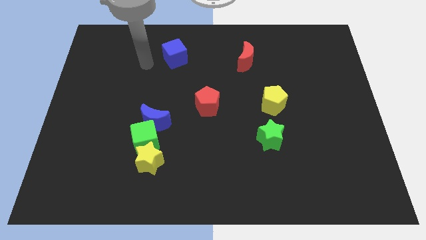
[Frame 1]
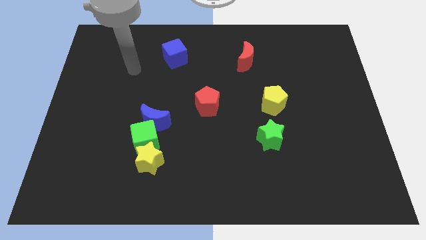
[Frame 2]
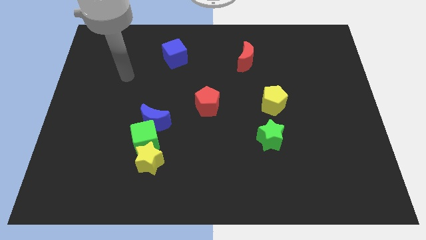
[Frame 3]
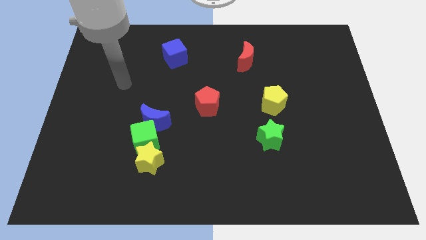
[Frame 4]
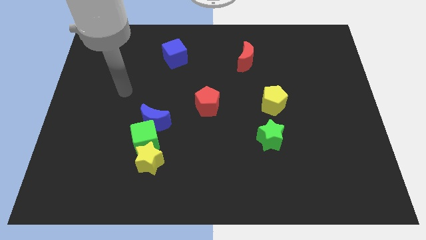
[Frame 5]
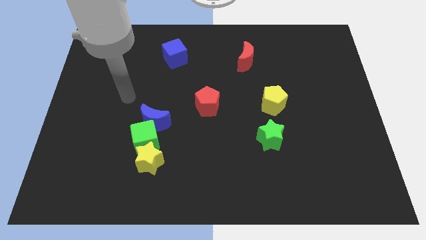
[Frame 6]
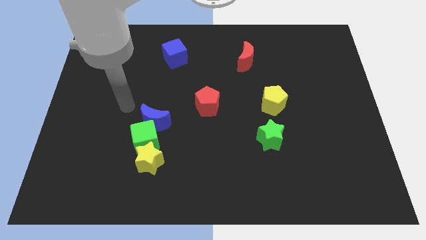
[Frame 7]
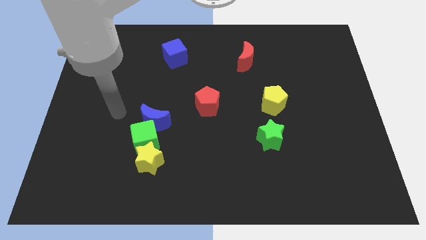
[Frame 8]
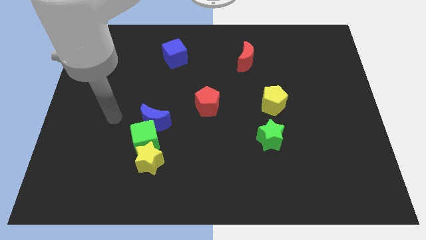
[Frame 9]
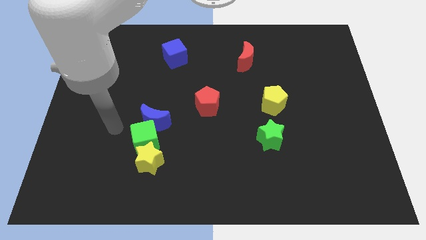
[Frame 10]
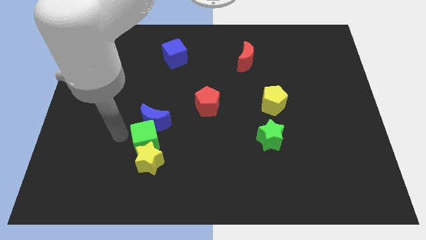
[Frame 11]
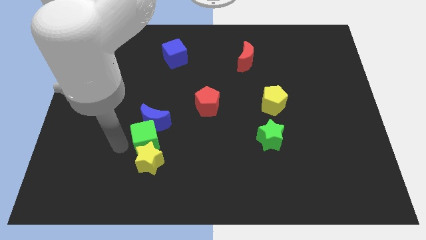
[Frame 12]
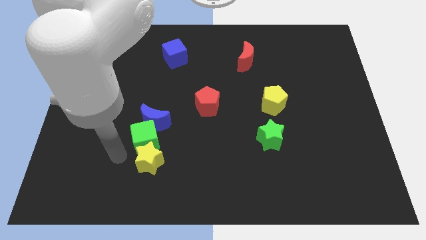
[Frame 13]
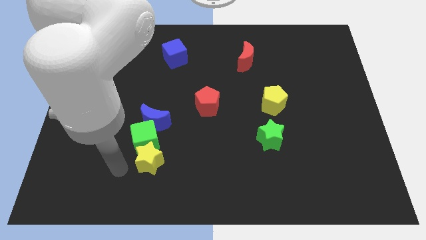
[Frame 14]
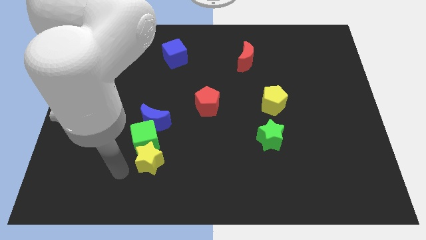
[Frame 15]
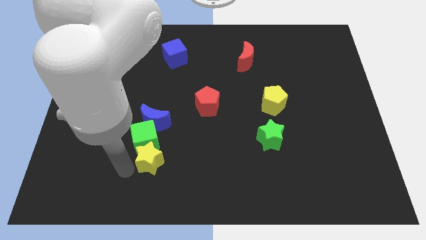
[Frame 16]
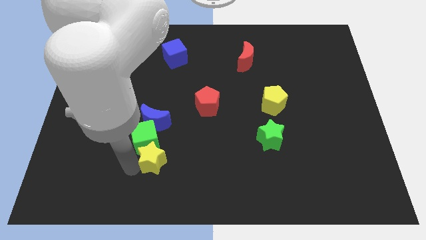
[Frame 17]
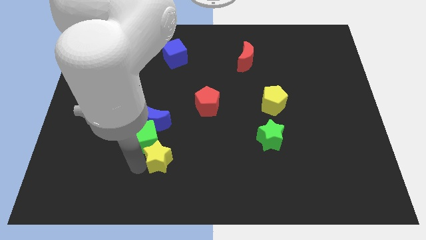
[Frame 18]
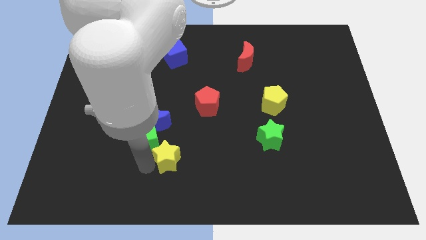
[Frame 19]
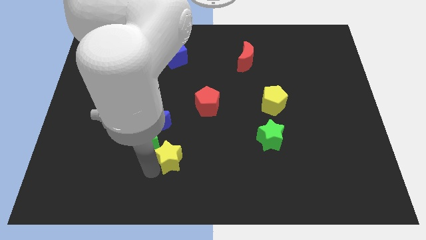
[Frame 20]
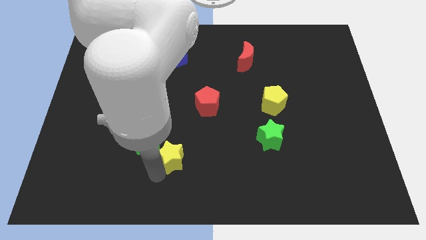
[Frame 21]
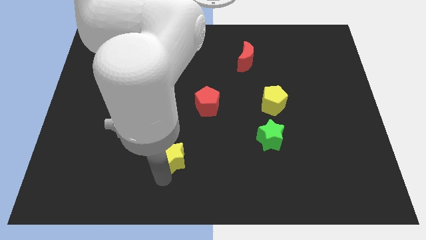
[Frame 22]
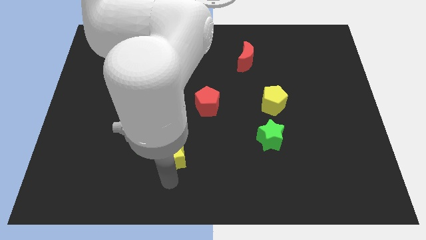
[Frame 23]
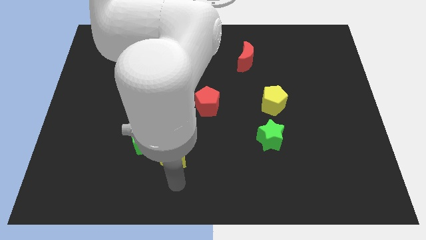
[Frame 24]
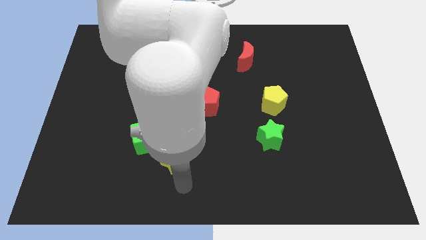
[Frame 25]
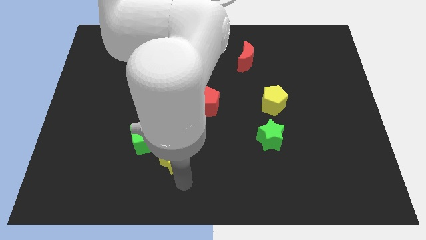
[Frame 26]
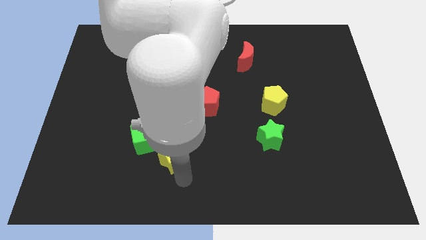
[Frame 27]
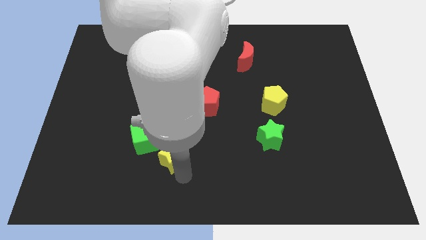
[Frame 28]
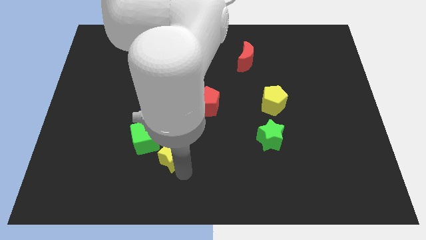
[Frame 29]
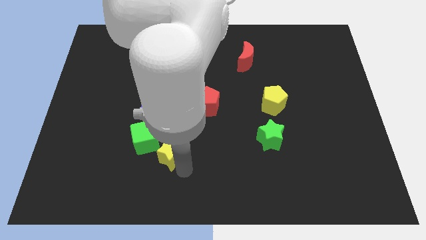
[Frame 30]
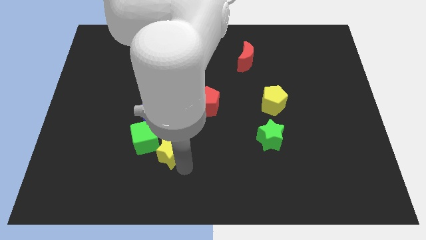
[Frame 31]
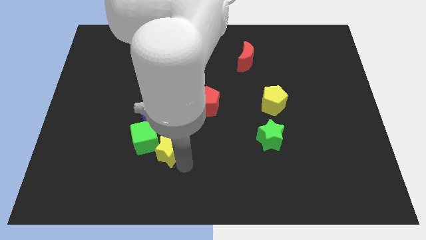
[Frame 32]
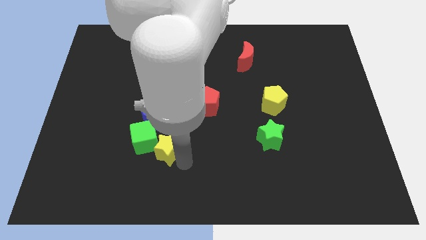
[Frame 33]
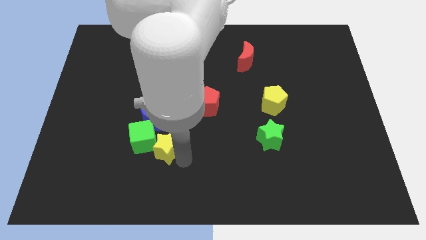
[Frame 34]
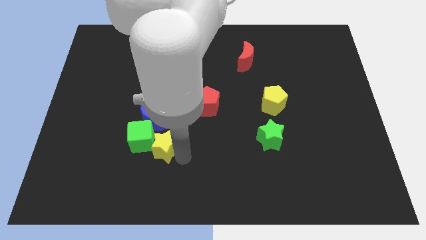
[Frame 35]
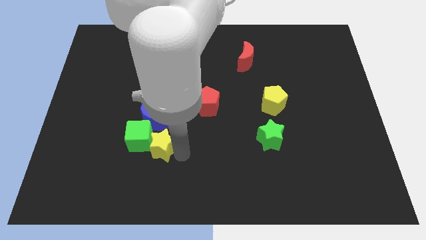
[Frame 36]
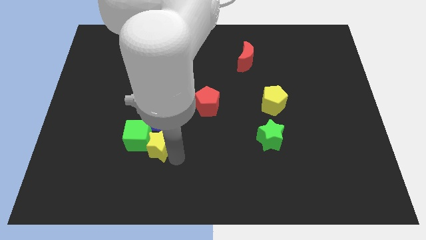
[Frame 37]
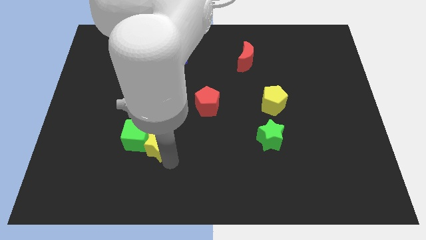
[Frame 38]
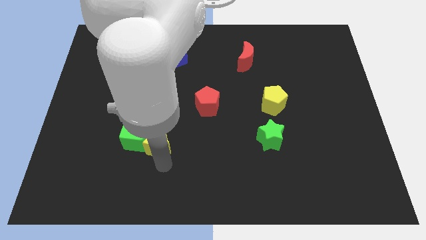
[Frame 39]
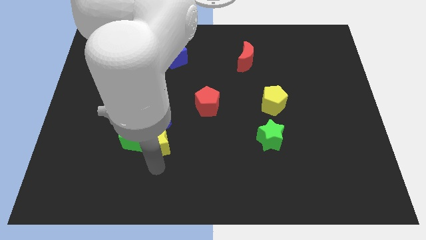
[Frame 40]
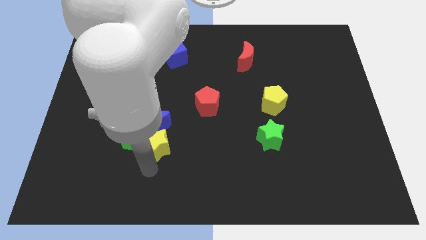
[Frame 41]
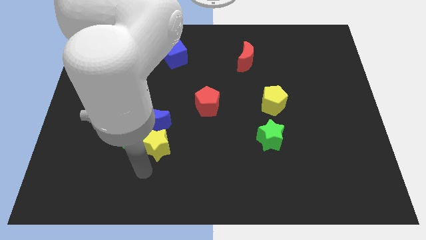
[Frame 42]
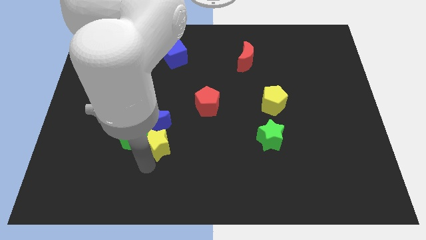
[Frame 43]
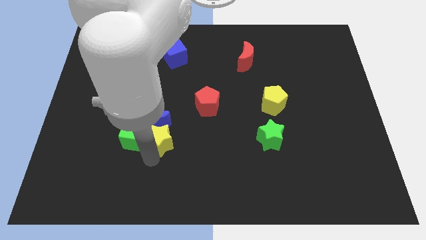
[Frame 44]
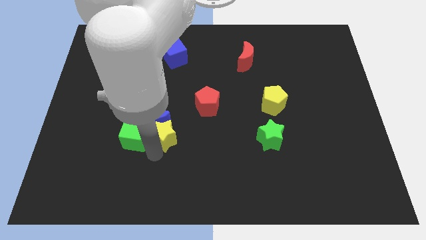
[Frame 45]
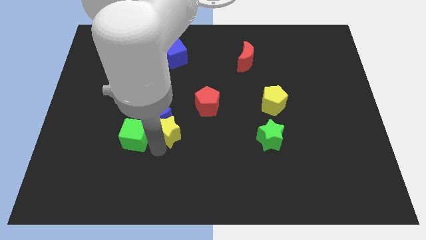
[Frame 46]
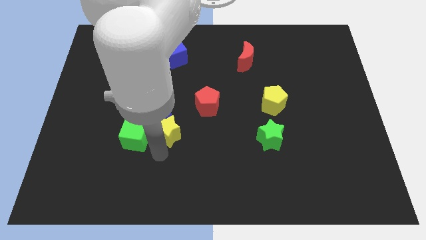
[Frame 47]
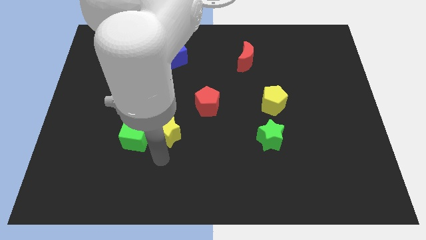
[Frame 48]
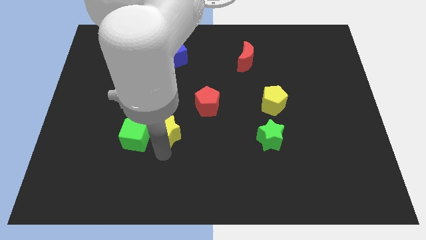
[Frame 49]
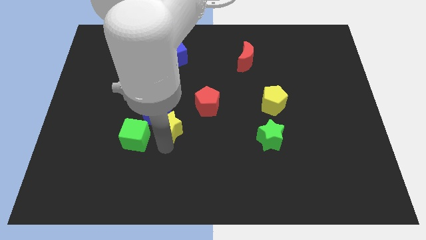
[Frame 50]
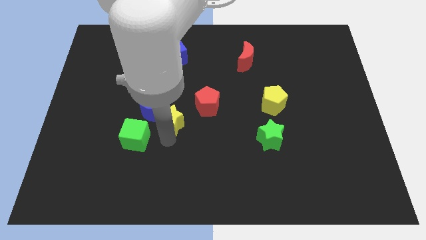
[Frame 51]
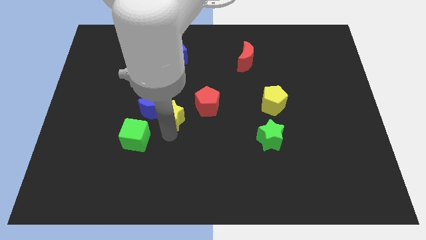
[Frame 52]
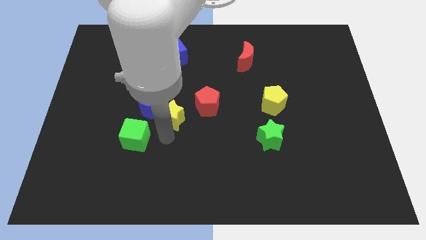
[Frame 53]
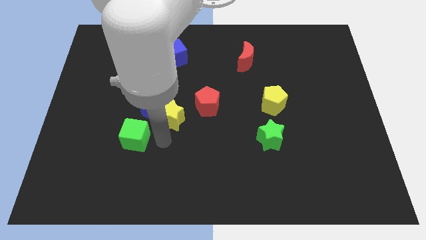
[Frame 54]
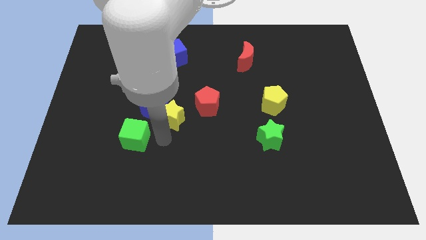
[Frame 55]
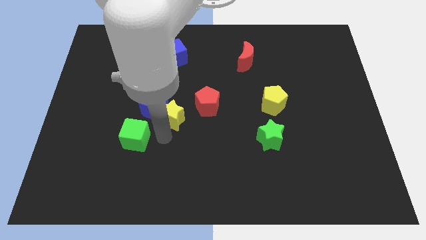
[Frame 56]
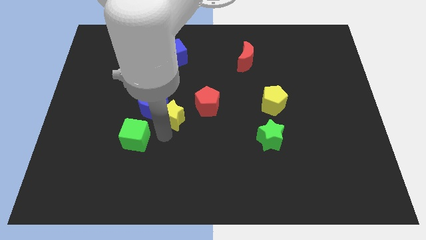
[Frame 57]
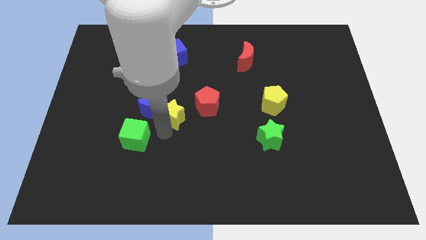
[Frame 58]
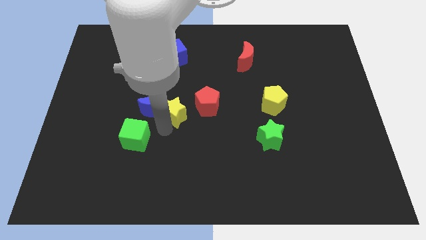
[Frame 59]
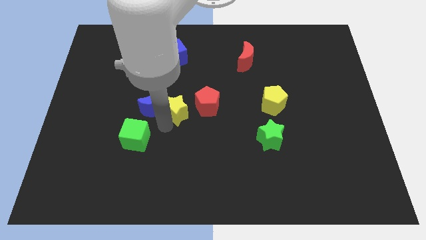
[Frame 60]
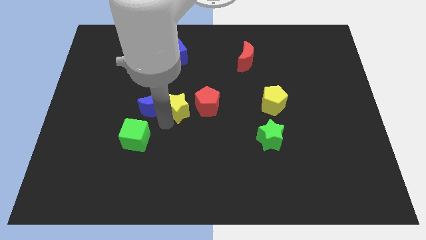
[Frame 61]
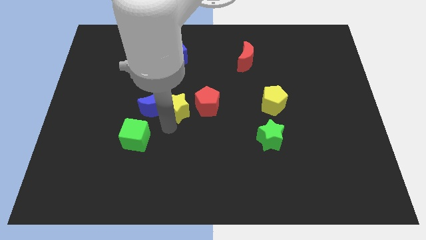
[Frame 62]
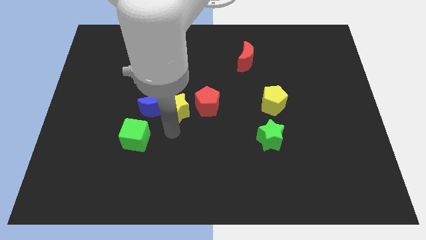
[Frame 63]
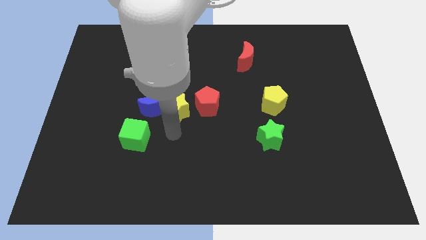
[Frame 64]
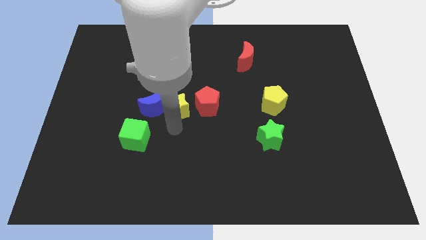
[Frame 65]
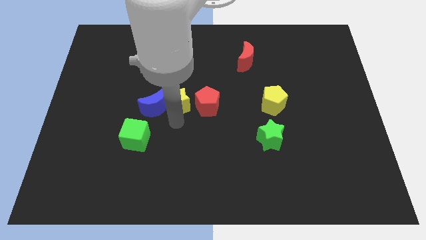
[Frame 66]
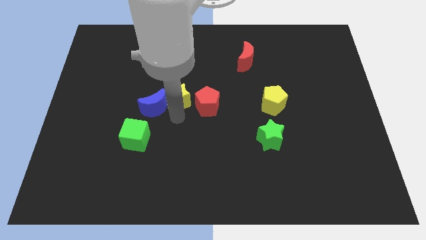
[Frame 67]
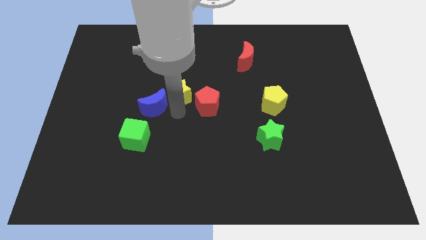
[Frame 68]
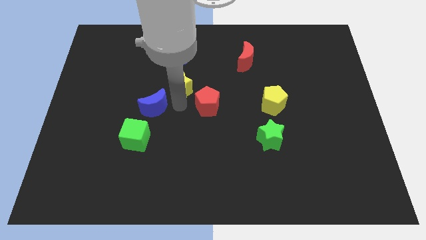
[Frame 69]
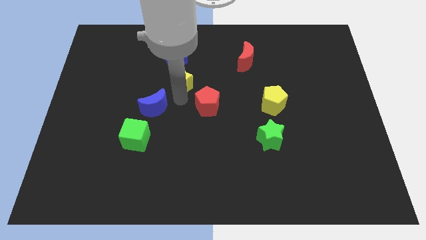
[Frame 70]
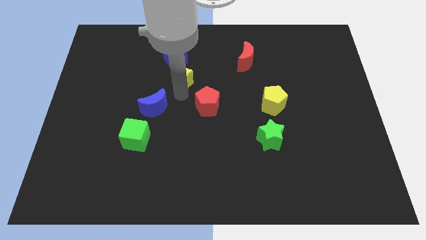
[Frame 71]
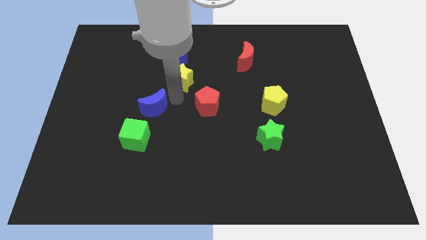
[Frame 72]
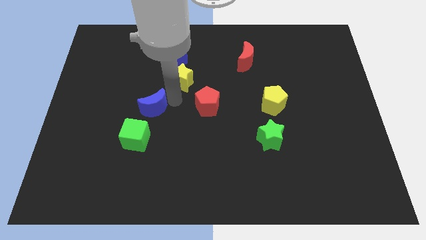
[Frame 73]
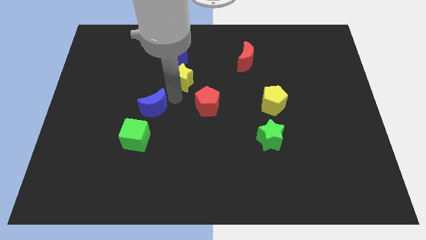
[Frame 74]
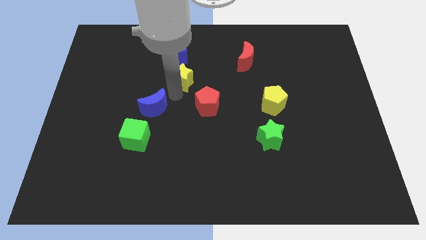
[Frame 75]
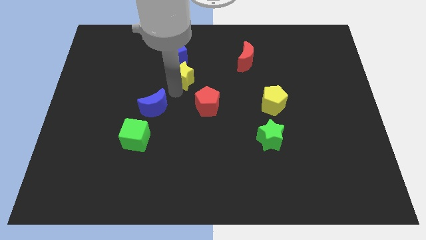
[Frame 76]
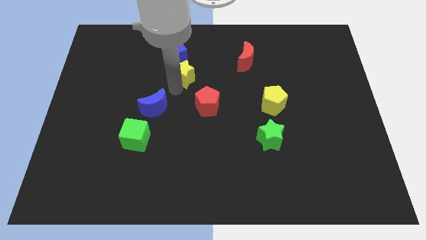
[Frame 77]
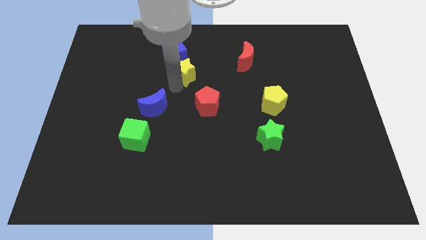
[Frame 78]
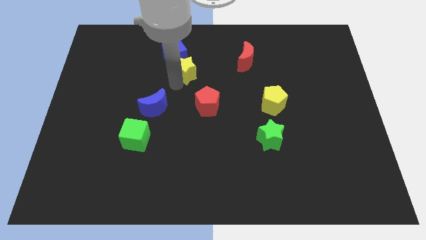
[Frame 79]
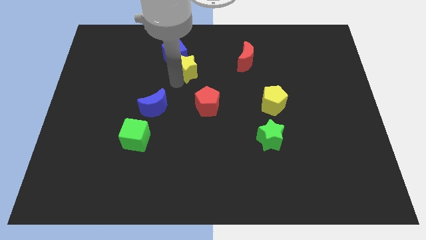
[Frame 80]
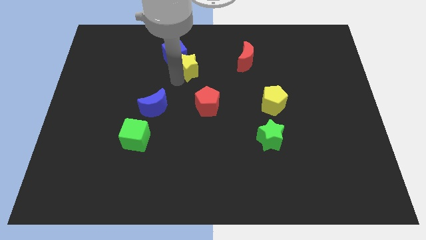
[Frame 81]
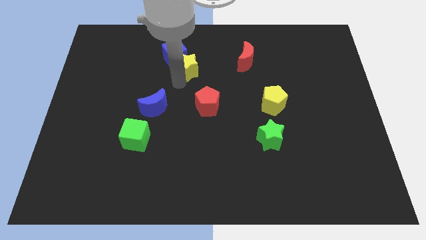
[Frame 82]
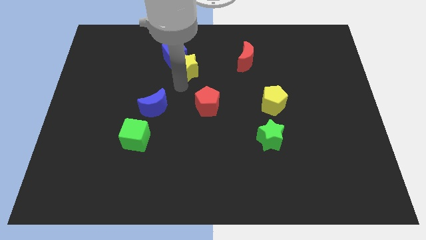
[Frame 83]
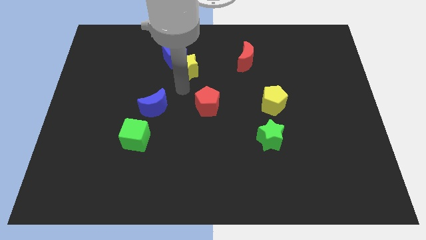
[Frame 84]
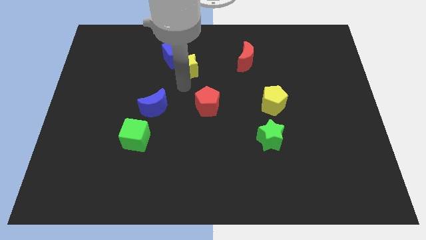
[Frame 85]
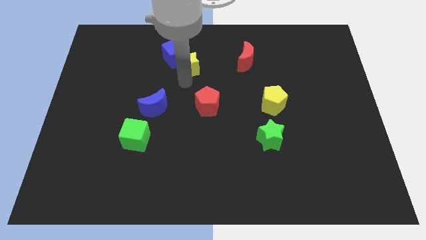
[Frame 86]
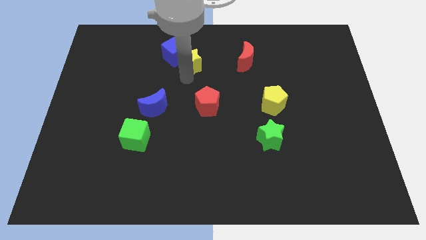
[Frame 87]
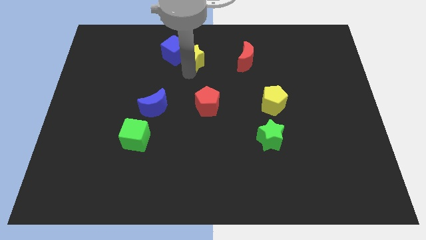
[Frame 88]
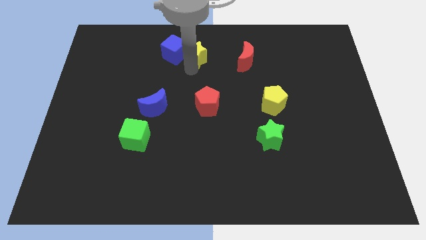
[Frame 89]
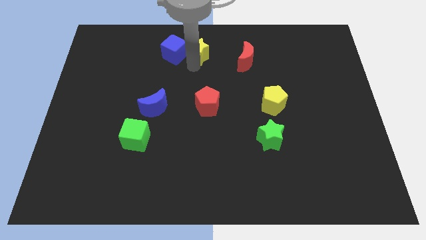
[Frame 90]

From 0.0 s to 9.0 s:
put the yellow star to the top
